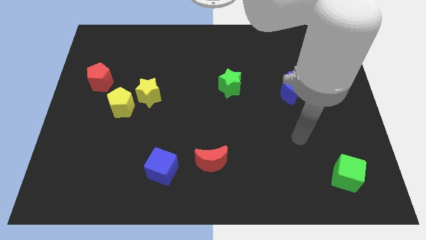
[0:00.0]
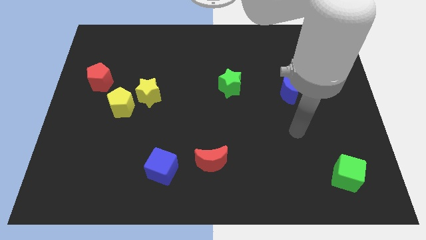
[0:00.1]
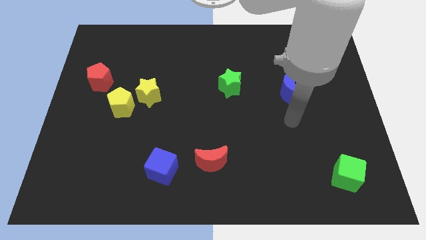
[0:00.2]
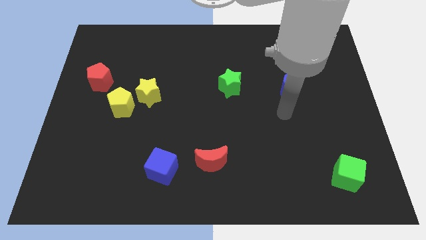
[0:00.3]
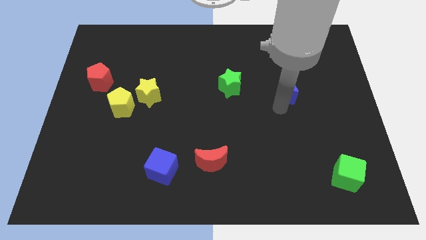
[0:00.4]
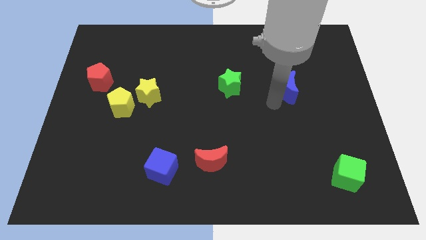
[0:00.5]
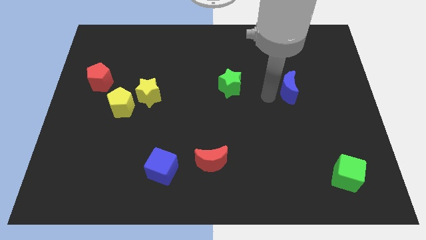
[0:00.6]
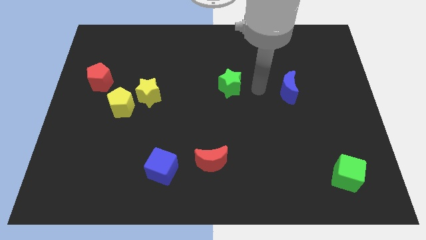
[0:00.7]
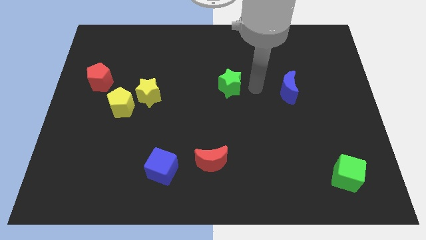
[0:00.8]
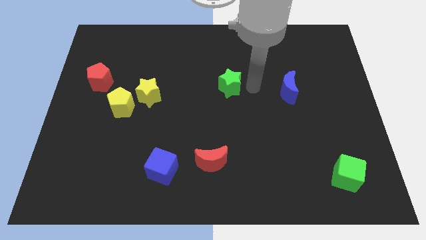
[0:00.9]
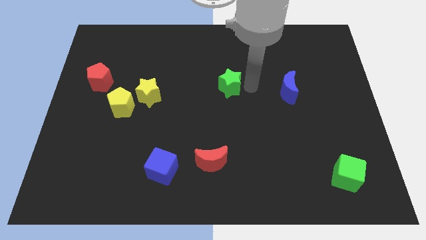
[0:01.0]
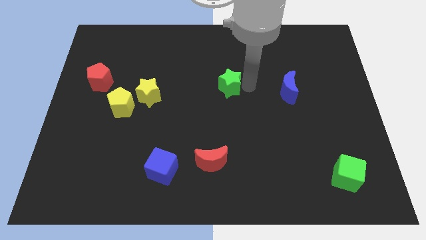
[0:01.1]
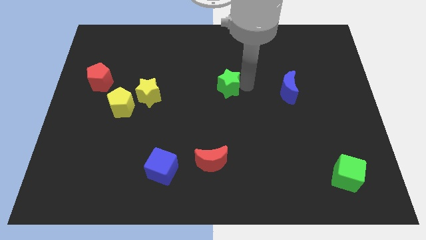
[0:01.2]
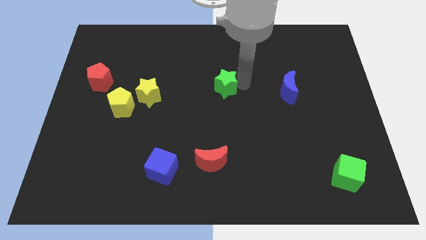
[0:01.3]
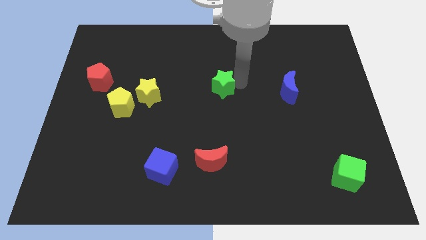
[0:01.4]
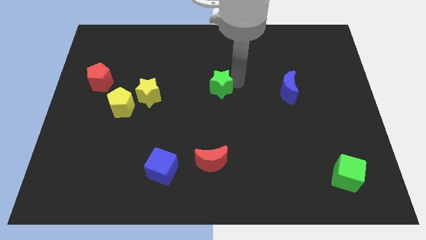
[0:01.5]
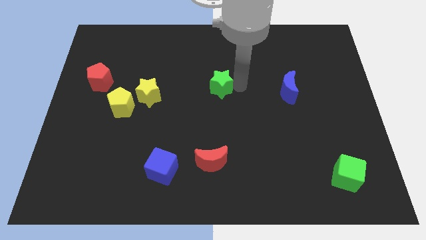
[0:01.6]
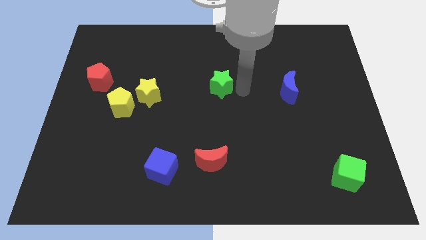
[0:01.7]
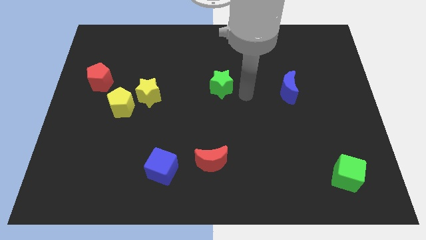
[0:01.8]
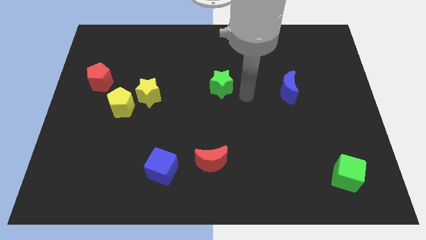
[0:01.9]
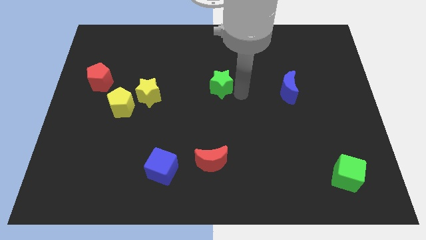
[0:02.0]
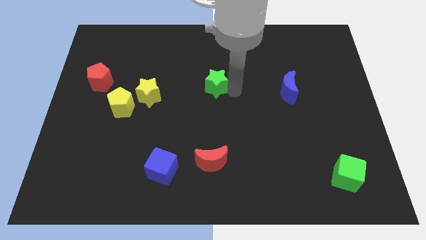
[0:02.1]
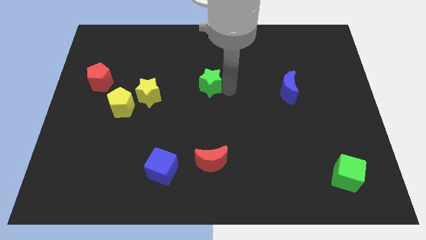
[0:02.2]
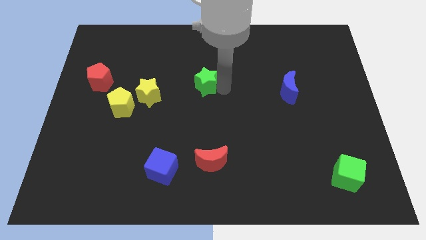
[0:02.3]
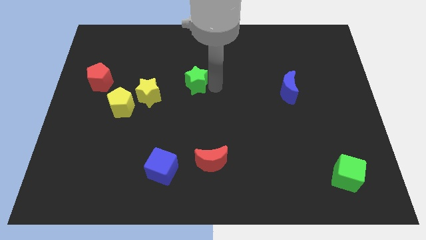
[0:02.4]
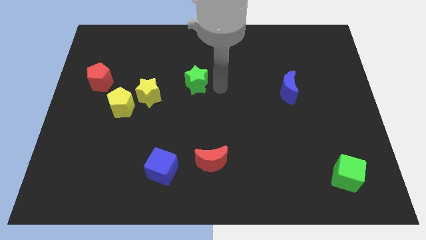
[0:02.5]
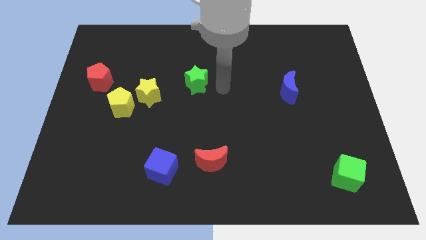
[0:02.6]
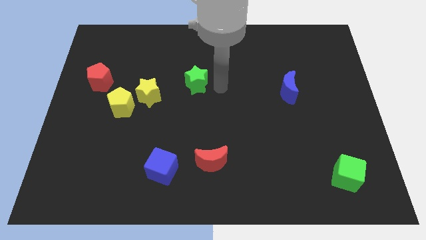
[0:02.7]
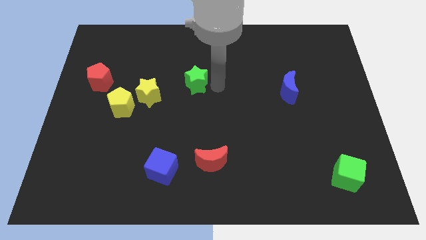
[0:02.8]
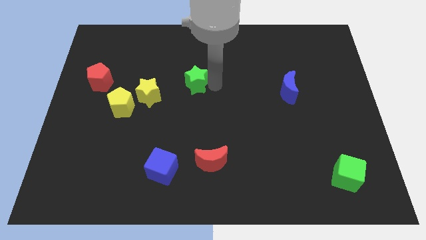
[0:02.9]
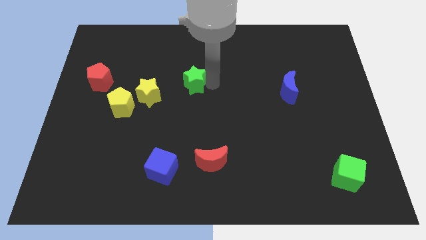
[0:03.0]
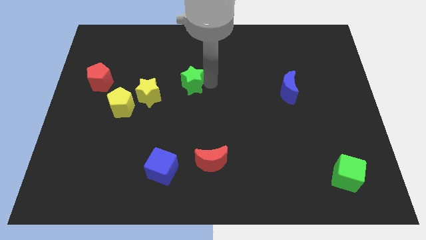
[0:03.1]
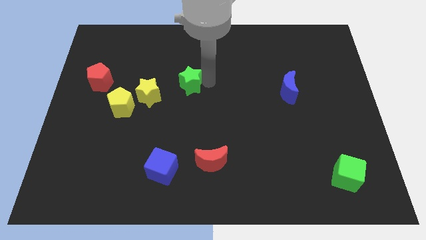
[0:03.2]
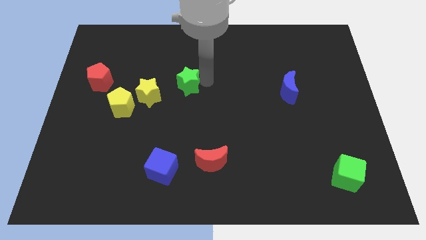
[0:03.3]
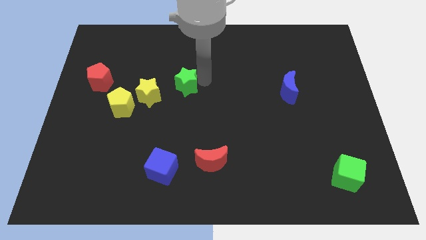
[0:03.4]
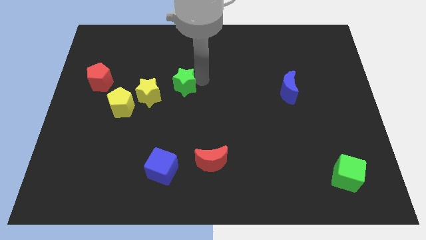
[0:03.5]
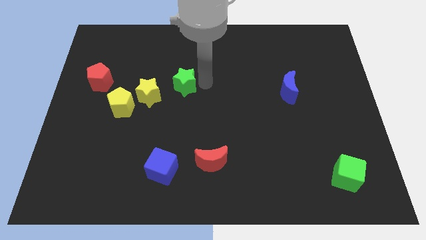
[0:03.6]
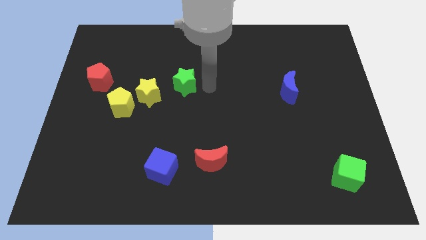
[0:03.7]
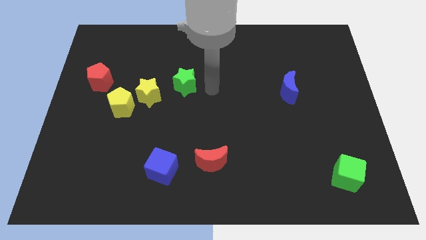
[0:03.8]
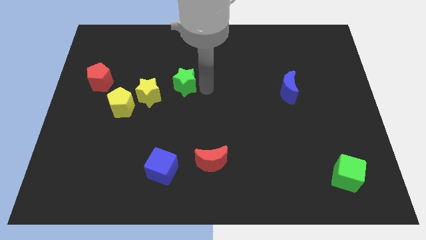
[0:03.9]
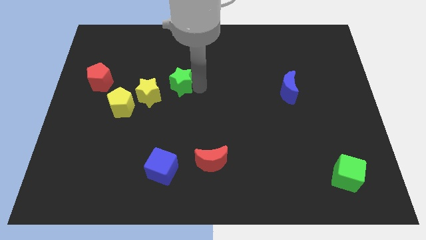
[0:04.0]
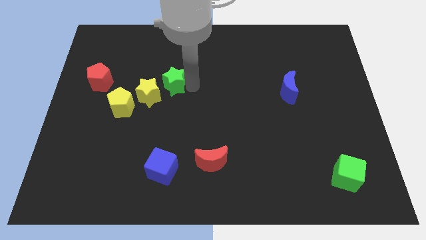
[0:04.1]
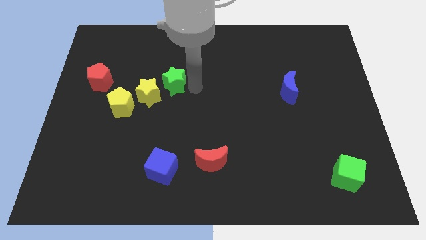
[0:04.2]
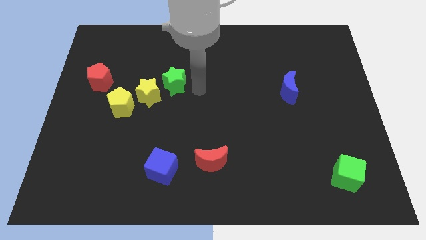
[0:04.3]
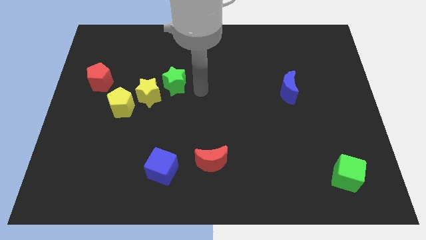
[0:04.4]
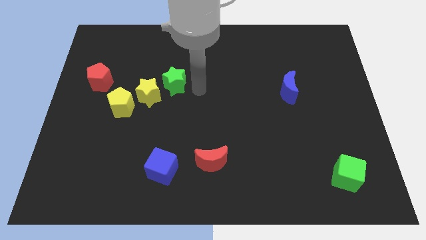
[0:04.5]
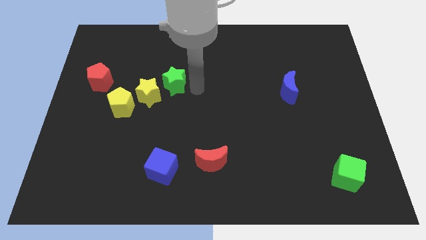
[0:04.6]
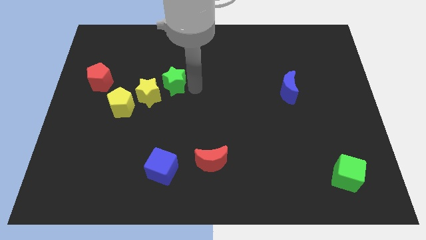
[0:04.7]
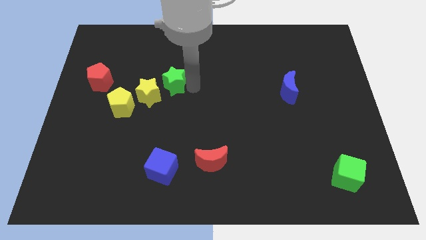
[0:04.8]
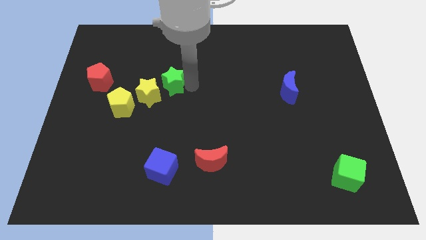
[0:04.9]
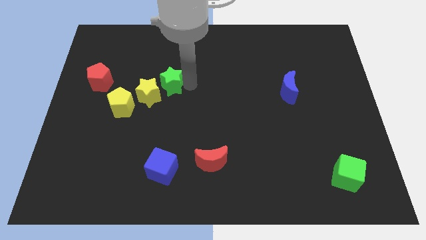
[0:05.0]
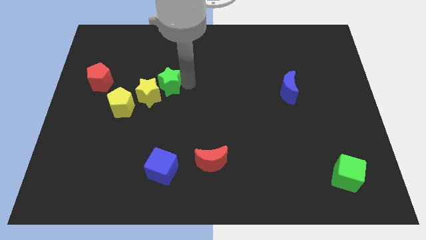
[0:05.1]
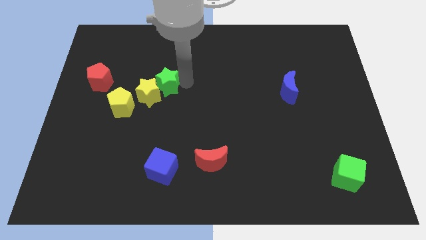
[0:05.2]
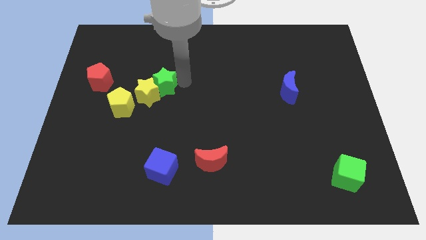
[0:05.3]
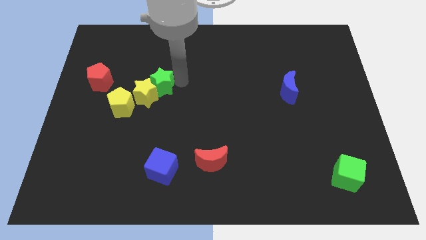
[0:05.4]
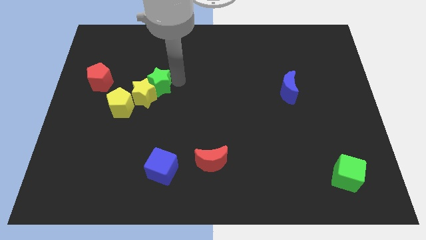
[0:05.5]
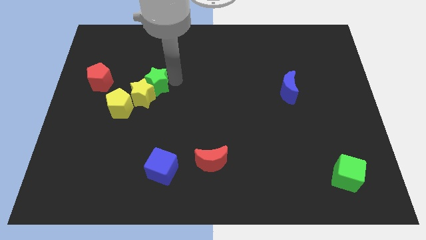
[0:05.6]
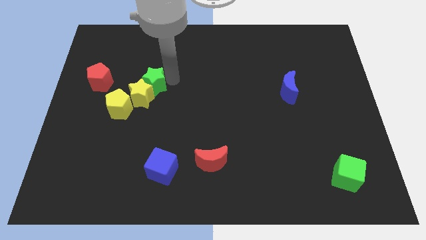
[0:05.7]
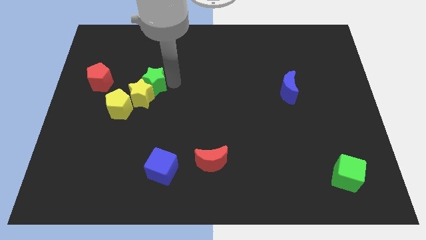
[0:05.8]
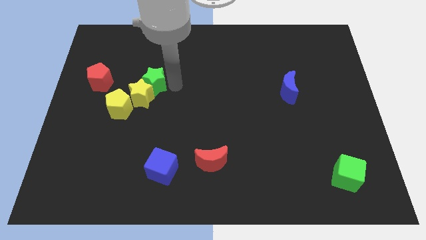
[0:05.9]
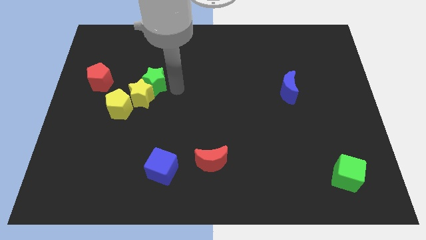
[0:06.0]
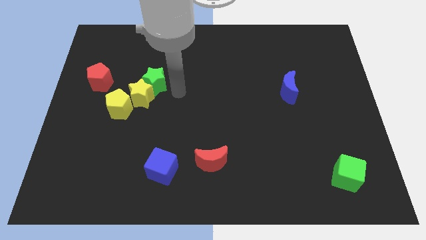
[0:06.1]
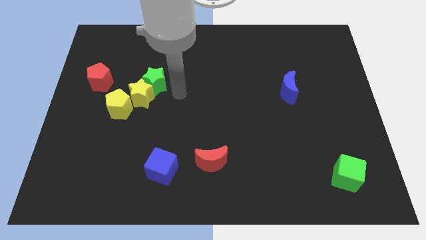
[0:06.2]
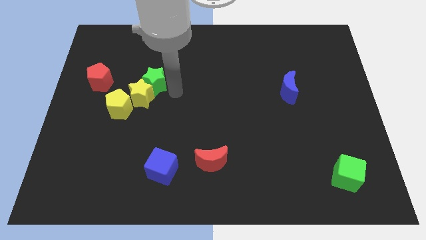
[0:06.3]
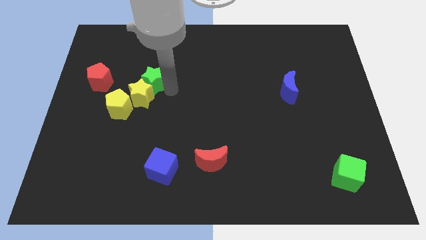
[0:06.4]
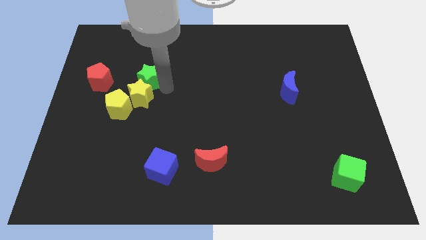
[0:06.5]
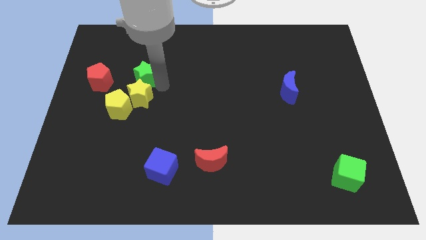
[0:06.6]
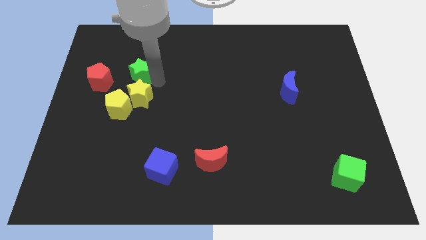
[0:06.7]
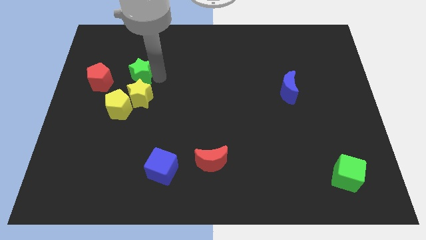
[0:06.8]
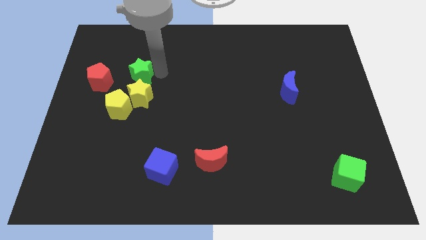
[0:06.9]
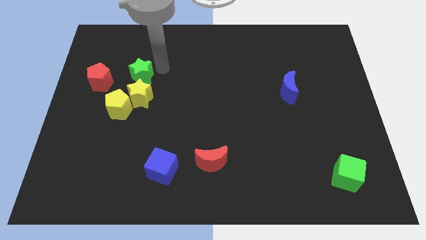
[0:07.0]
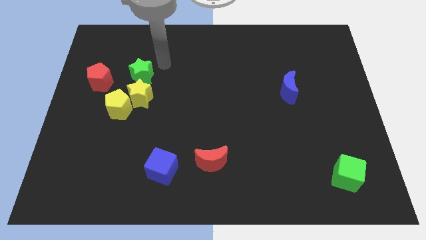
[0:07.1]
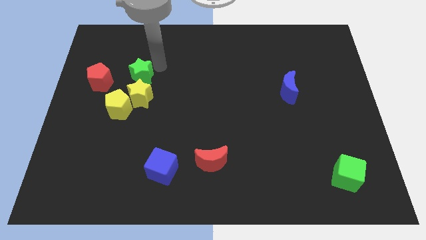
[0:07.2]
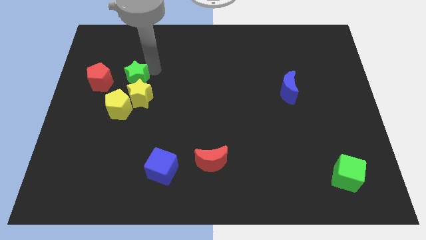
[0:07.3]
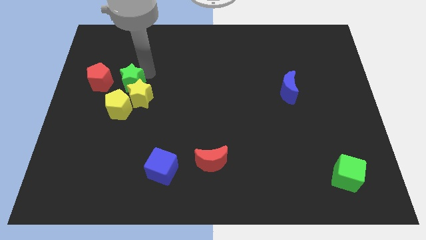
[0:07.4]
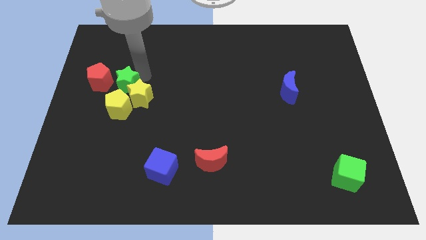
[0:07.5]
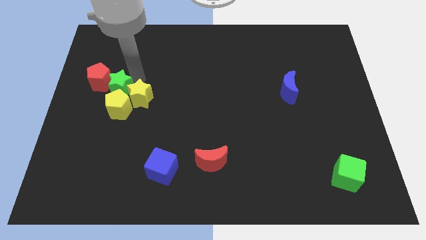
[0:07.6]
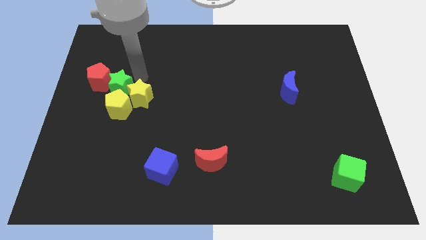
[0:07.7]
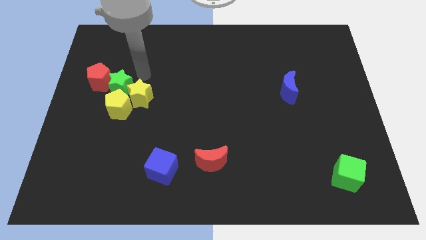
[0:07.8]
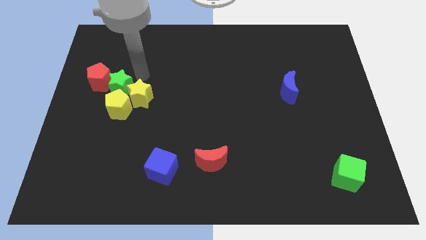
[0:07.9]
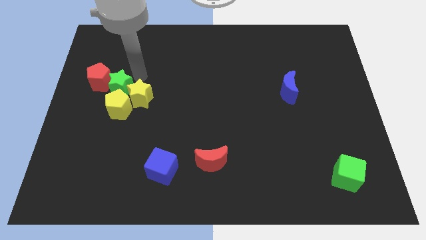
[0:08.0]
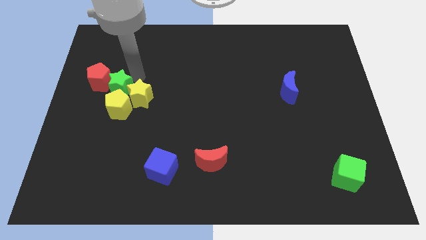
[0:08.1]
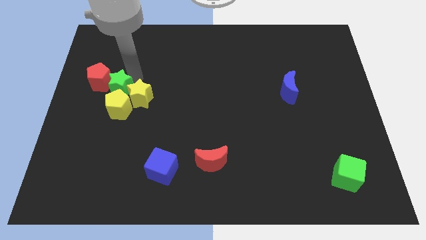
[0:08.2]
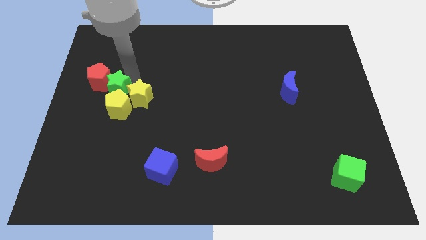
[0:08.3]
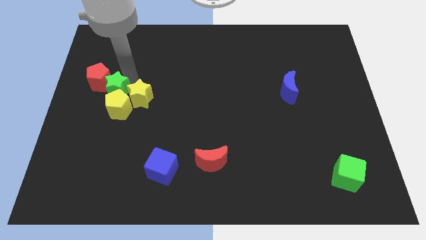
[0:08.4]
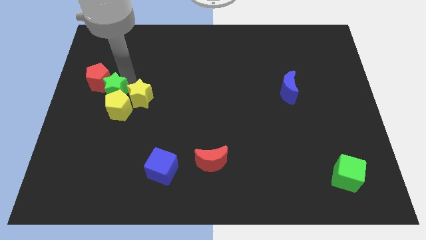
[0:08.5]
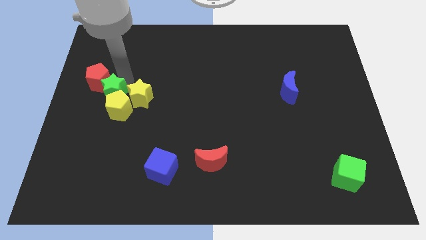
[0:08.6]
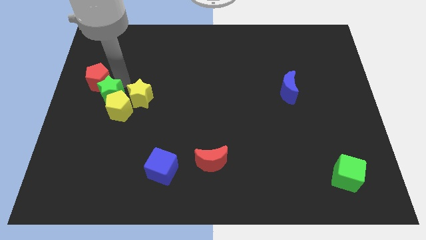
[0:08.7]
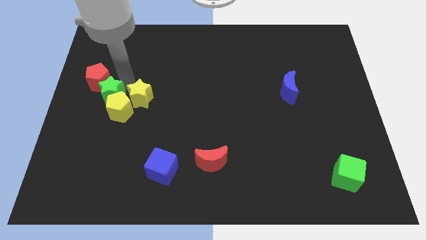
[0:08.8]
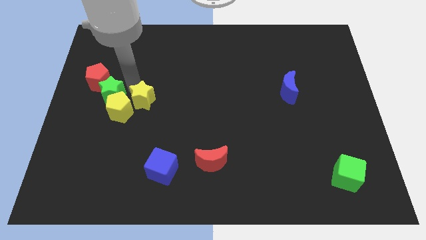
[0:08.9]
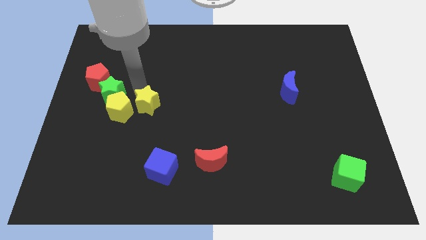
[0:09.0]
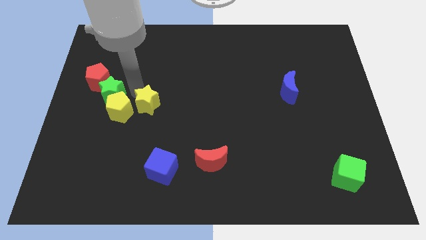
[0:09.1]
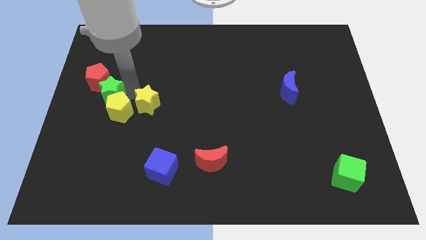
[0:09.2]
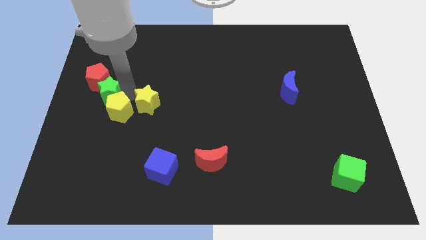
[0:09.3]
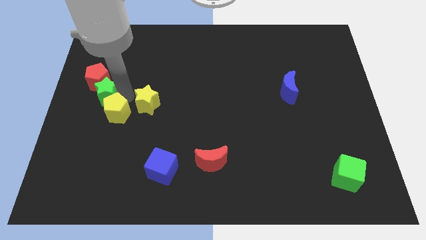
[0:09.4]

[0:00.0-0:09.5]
move the green star to the center left
